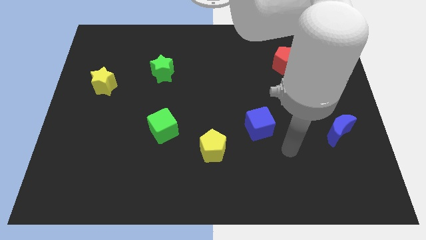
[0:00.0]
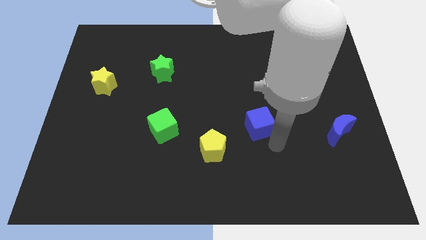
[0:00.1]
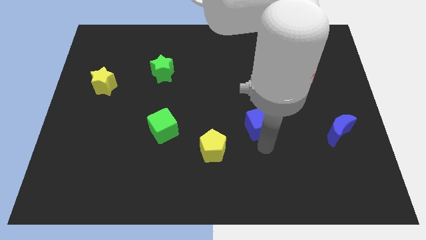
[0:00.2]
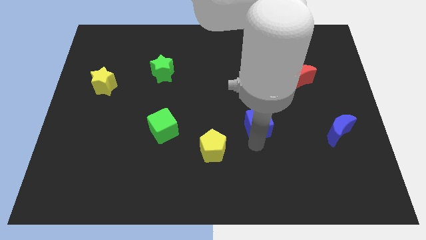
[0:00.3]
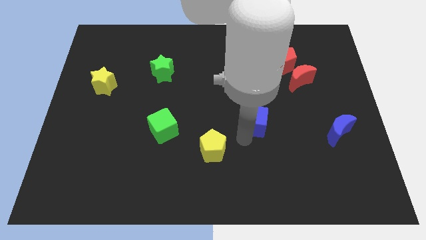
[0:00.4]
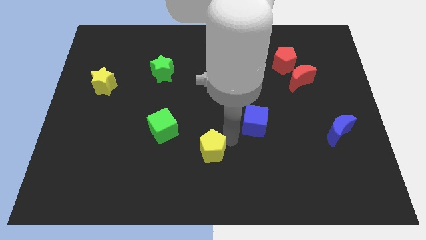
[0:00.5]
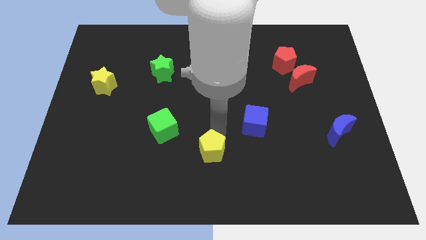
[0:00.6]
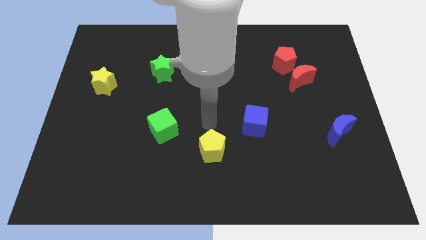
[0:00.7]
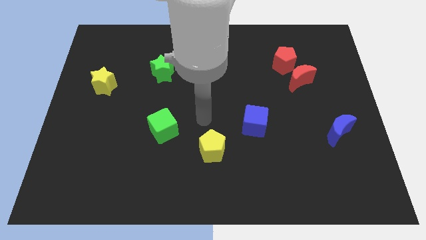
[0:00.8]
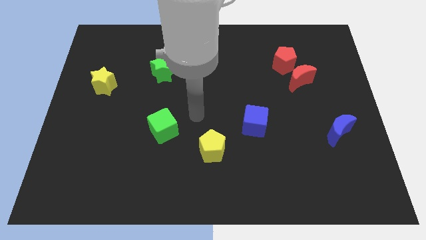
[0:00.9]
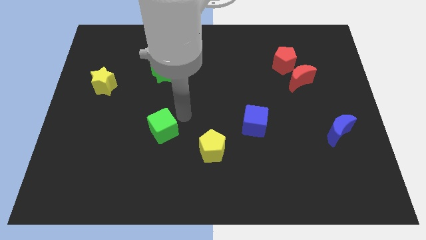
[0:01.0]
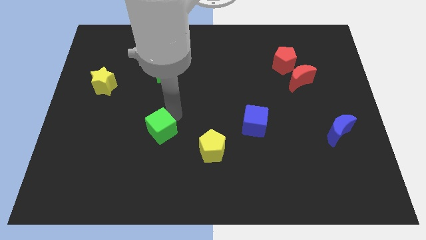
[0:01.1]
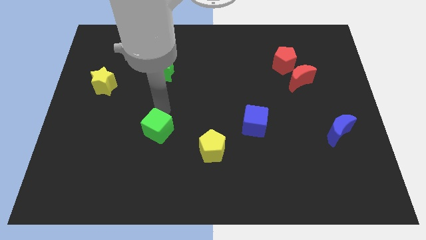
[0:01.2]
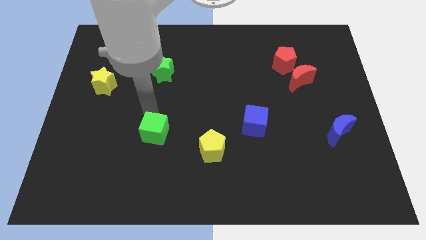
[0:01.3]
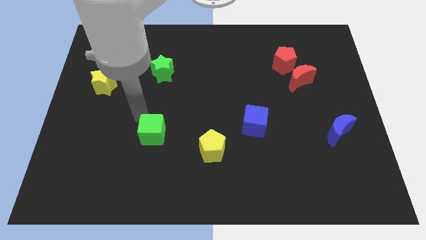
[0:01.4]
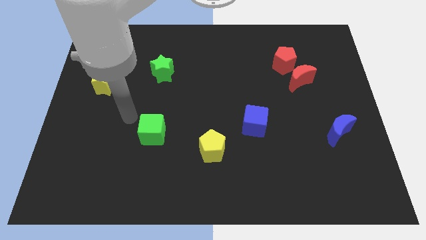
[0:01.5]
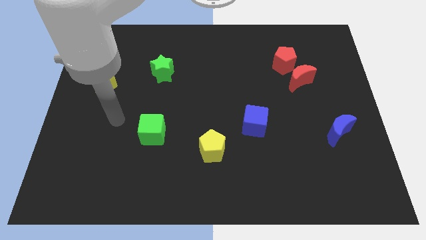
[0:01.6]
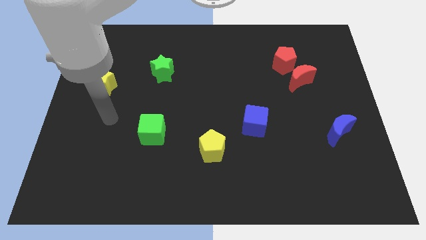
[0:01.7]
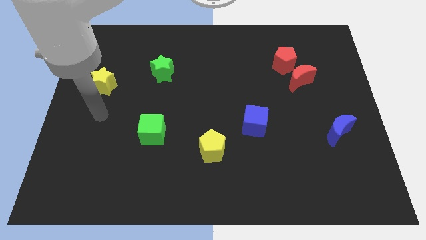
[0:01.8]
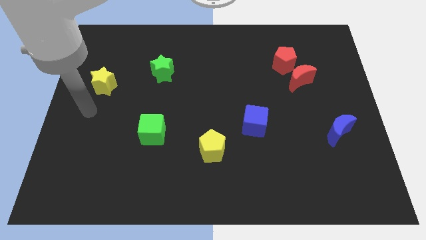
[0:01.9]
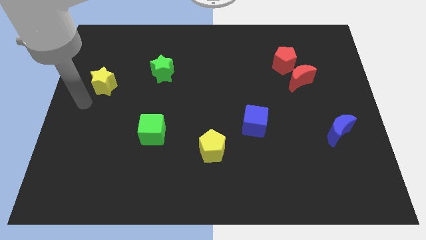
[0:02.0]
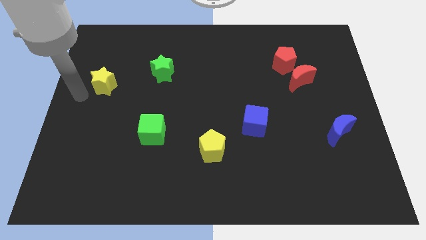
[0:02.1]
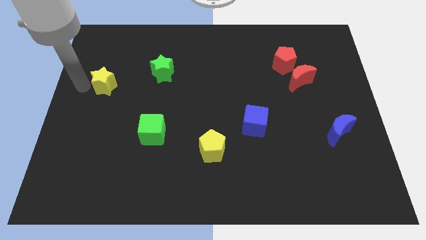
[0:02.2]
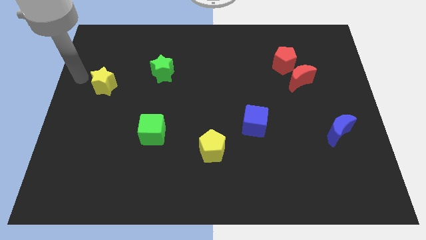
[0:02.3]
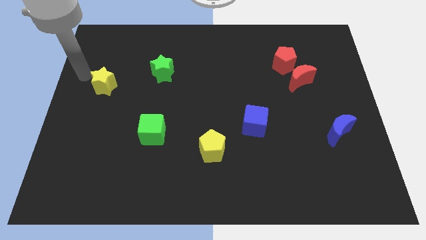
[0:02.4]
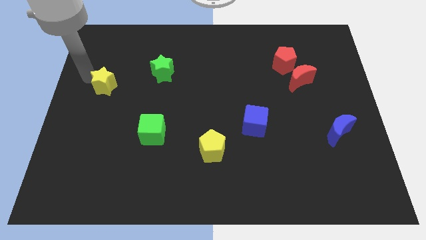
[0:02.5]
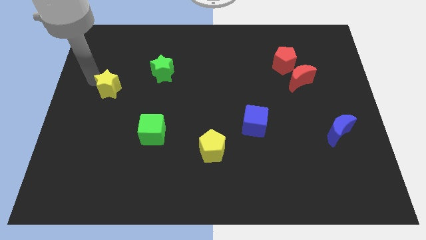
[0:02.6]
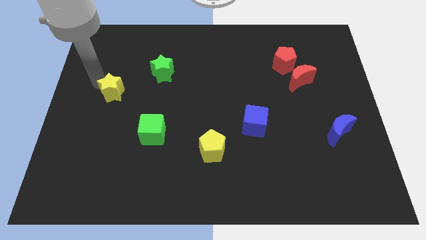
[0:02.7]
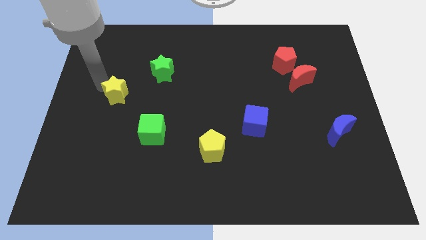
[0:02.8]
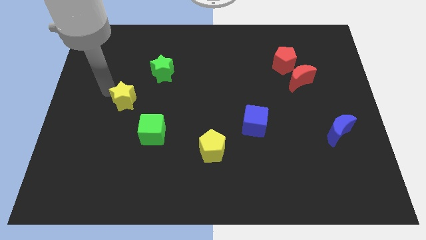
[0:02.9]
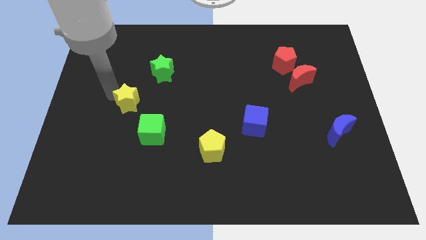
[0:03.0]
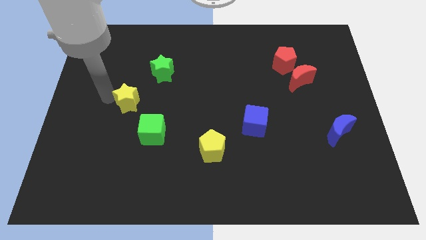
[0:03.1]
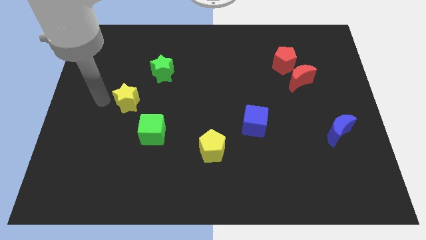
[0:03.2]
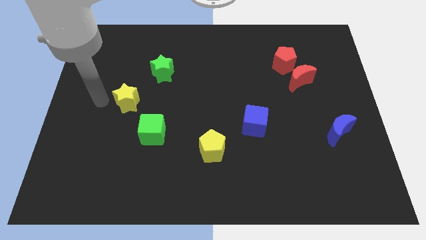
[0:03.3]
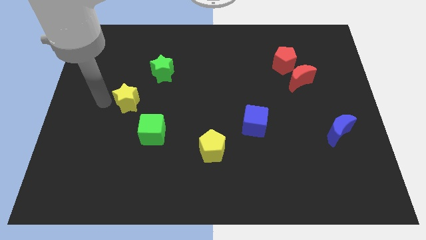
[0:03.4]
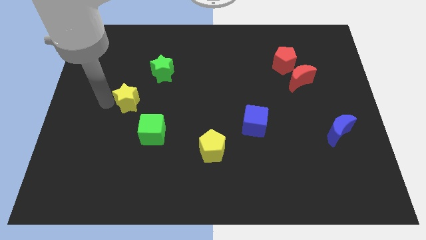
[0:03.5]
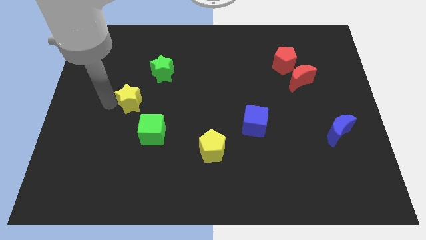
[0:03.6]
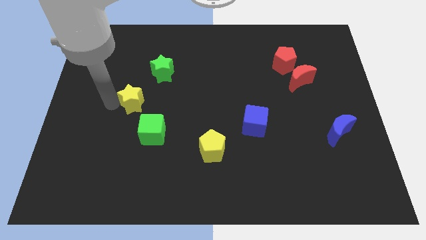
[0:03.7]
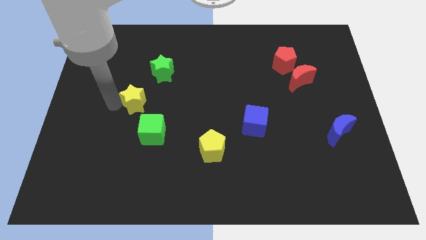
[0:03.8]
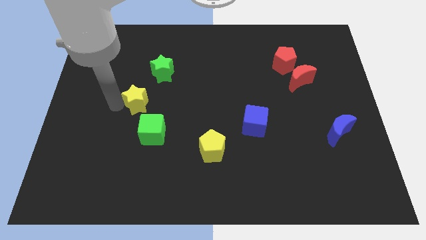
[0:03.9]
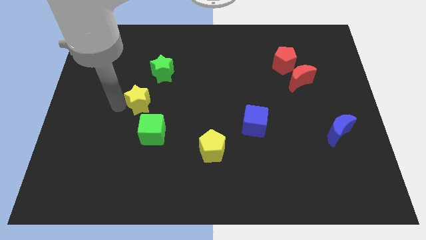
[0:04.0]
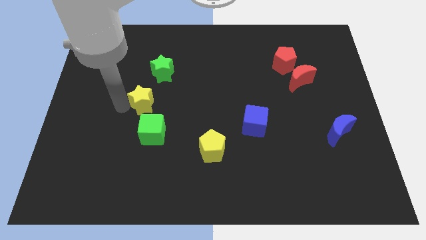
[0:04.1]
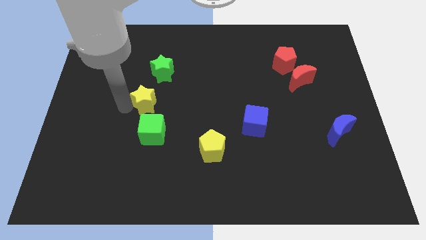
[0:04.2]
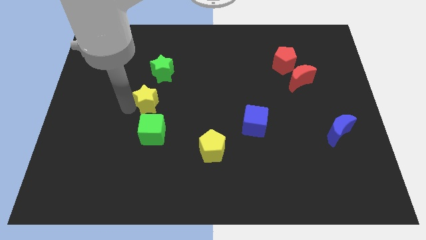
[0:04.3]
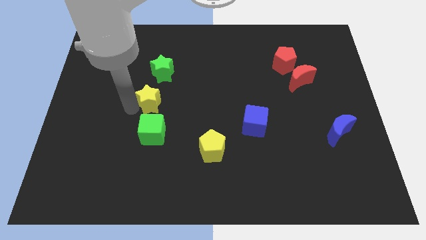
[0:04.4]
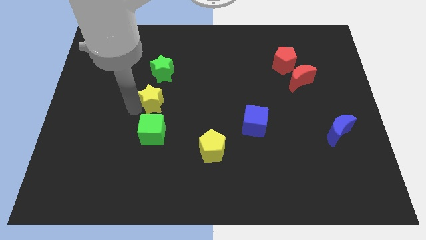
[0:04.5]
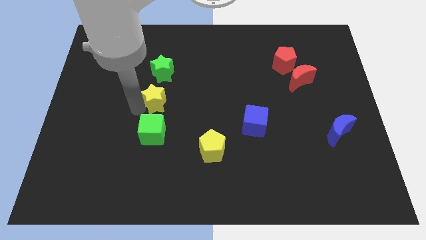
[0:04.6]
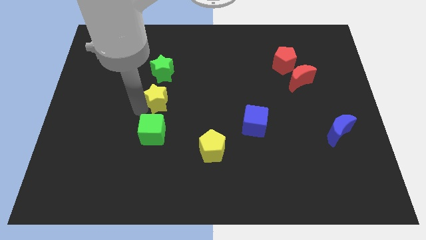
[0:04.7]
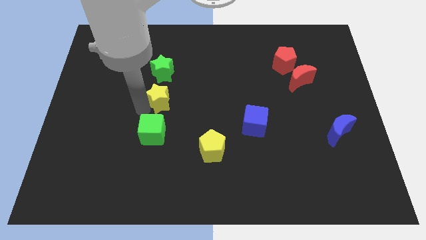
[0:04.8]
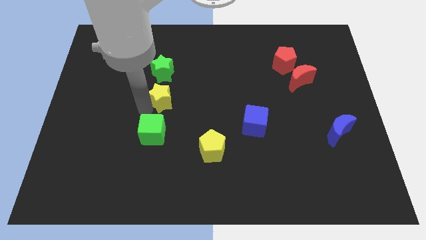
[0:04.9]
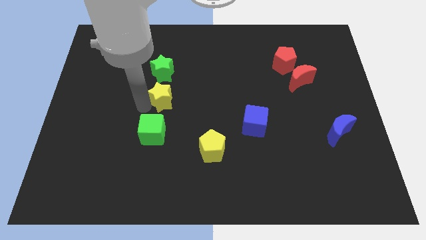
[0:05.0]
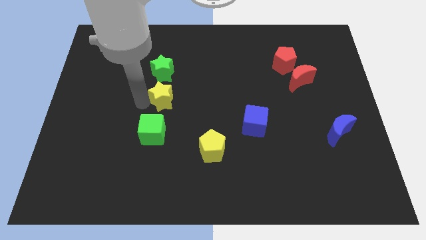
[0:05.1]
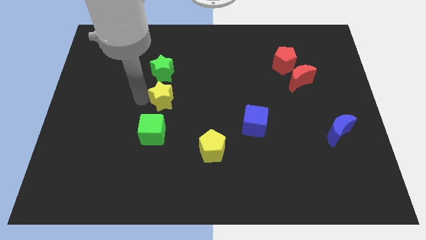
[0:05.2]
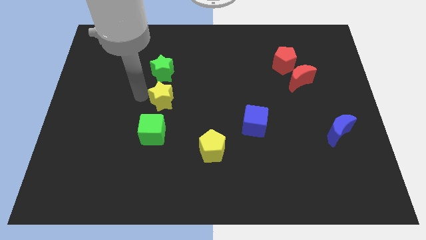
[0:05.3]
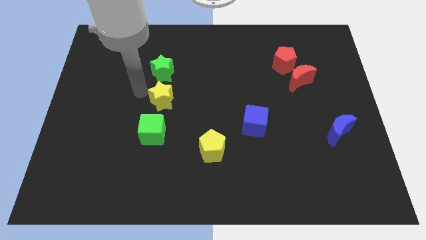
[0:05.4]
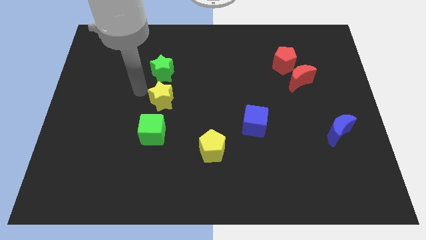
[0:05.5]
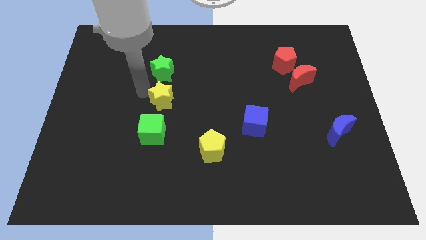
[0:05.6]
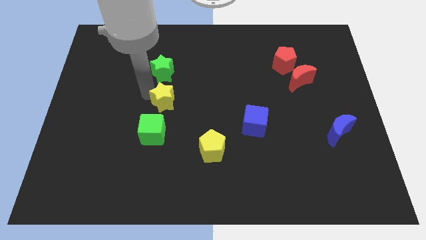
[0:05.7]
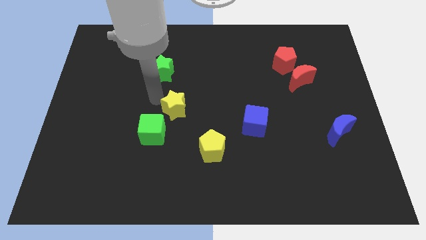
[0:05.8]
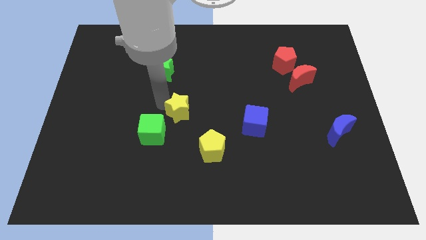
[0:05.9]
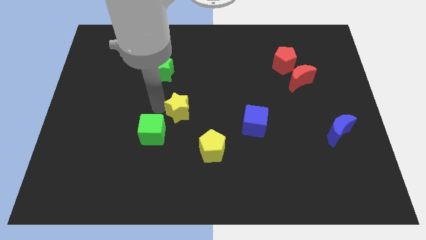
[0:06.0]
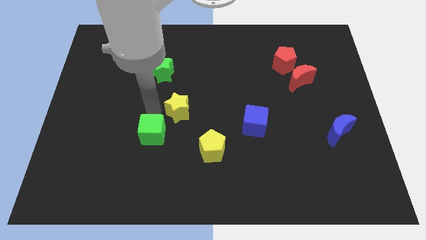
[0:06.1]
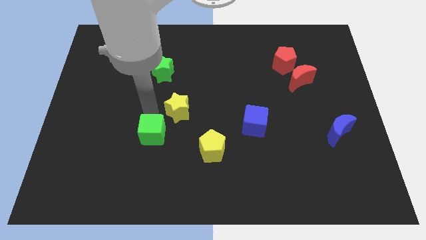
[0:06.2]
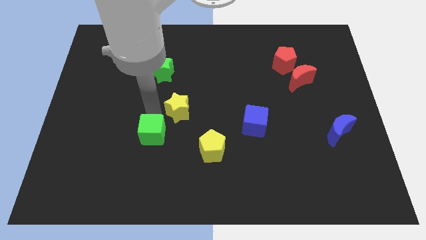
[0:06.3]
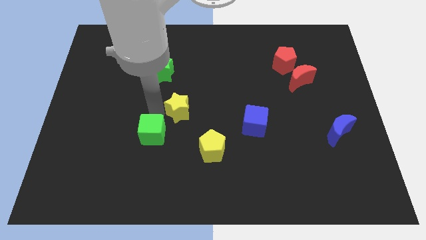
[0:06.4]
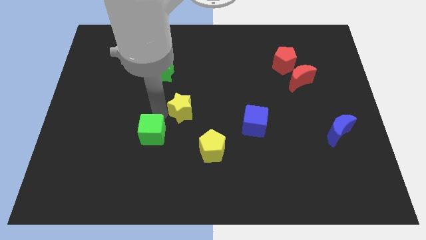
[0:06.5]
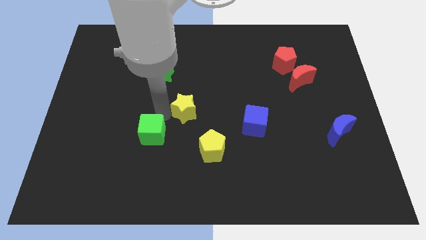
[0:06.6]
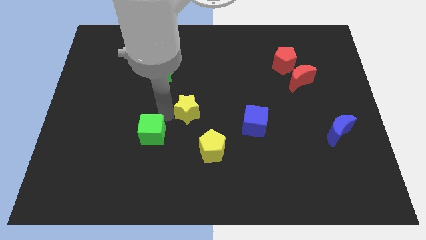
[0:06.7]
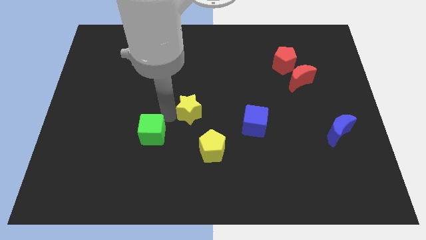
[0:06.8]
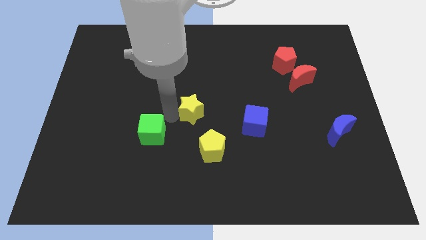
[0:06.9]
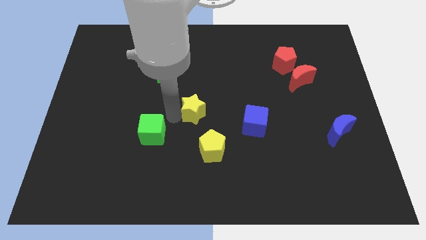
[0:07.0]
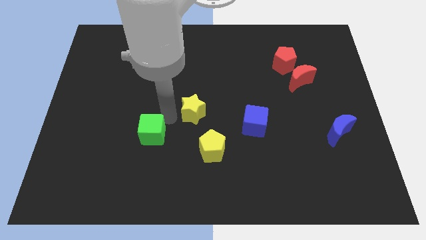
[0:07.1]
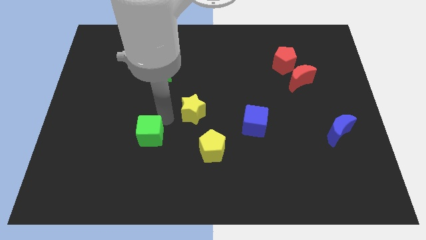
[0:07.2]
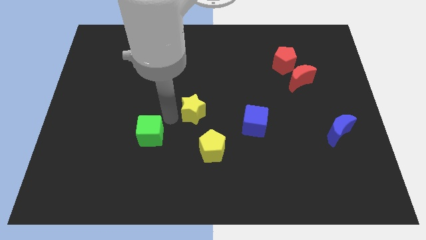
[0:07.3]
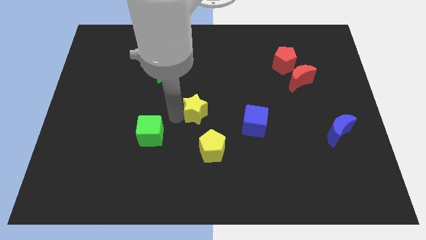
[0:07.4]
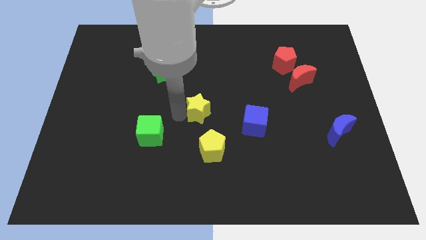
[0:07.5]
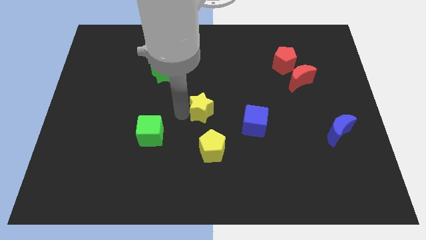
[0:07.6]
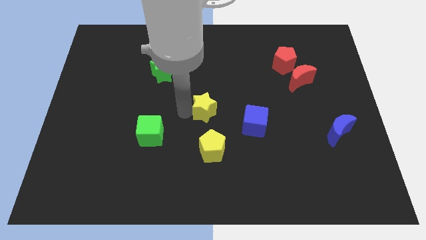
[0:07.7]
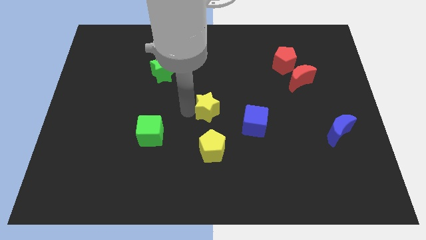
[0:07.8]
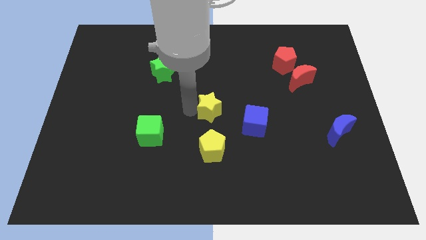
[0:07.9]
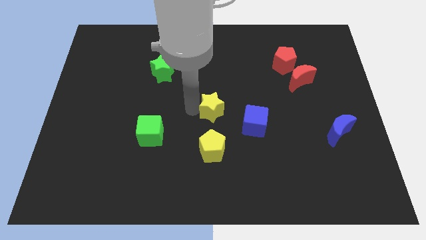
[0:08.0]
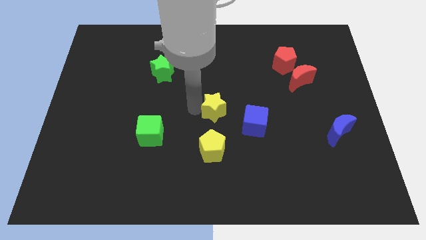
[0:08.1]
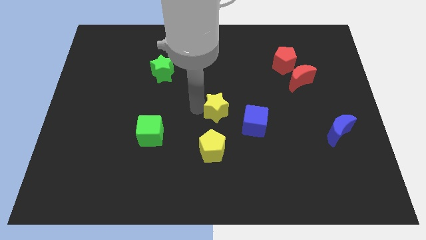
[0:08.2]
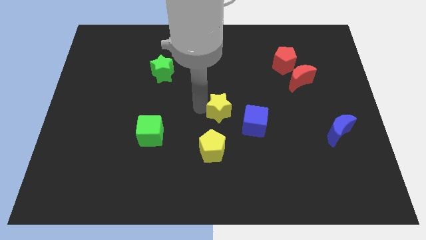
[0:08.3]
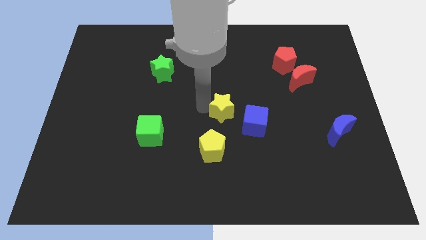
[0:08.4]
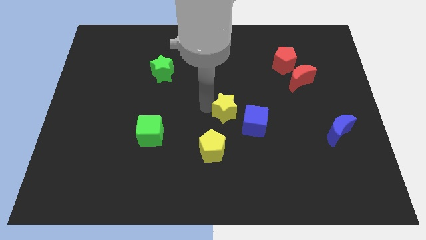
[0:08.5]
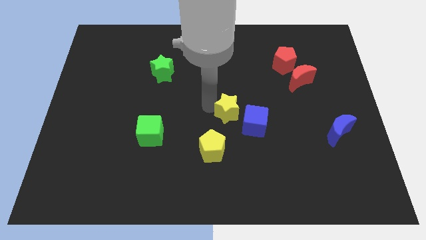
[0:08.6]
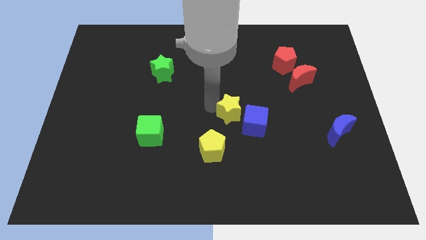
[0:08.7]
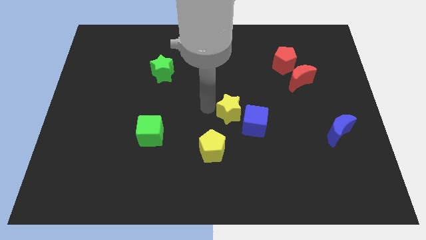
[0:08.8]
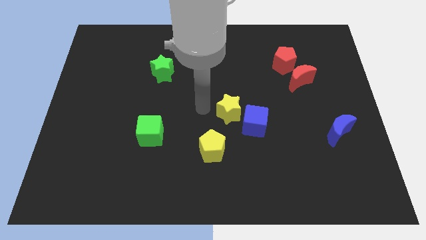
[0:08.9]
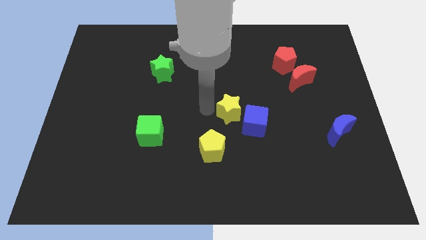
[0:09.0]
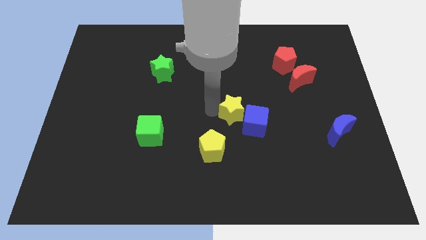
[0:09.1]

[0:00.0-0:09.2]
put the yellow star close to the blue cube
